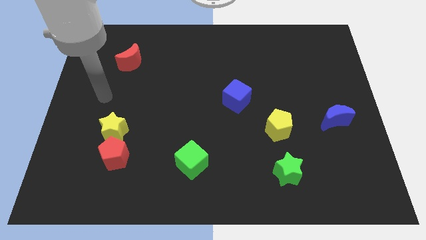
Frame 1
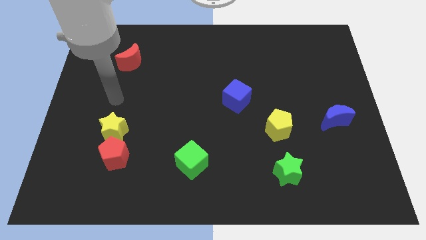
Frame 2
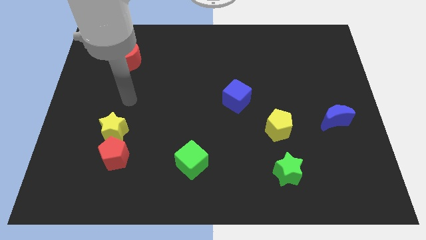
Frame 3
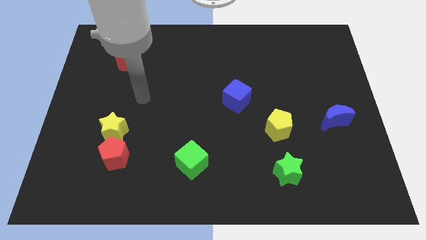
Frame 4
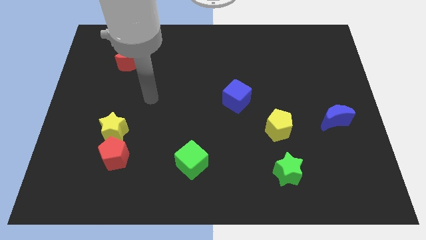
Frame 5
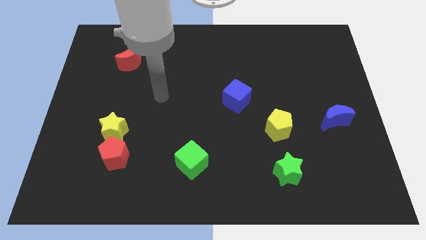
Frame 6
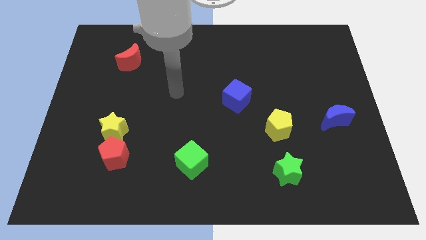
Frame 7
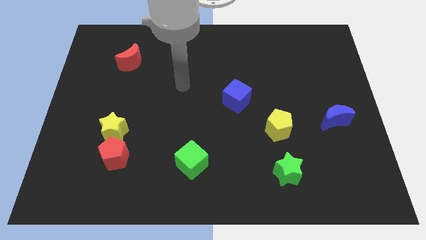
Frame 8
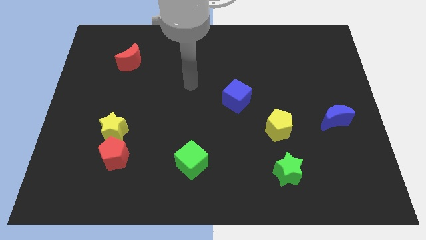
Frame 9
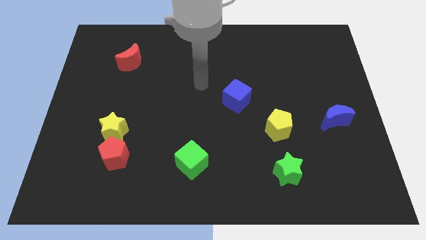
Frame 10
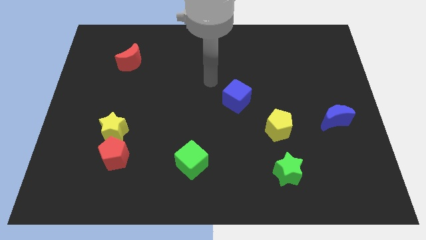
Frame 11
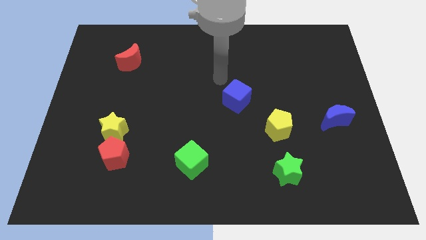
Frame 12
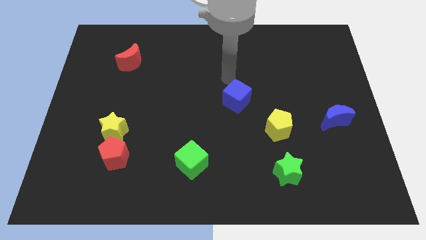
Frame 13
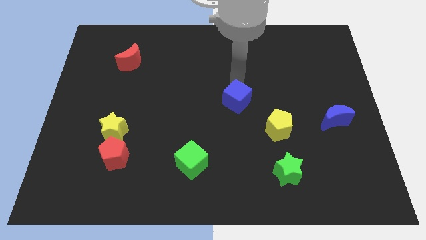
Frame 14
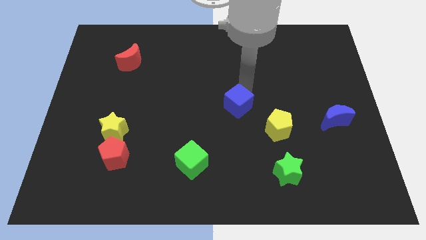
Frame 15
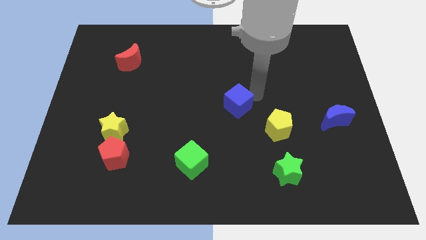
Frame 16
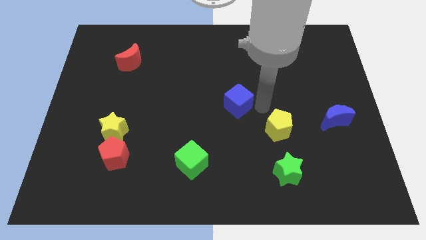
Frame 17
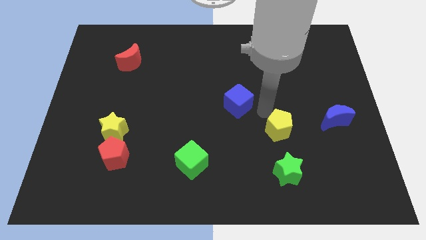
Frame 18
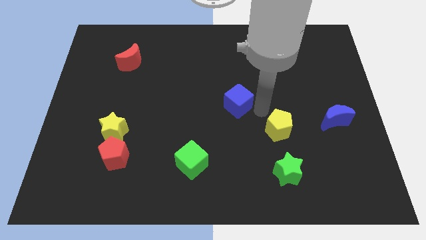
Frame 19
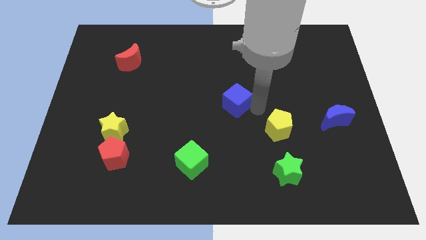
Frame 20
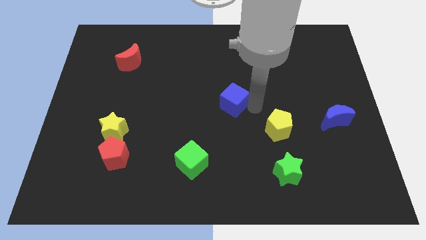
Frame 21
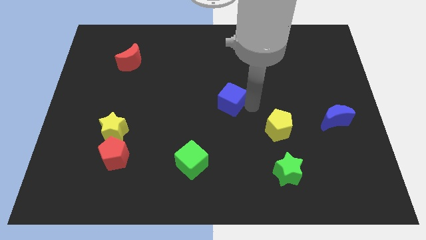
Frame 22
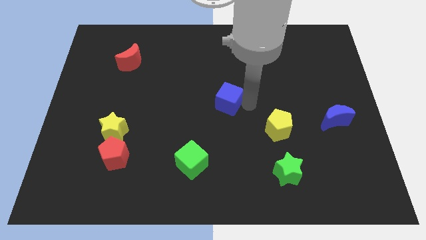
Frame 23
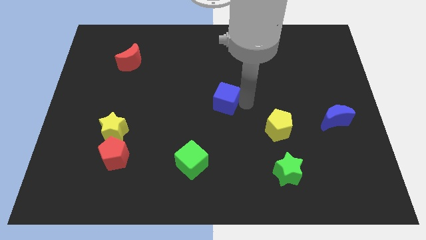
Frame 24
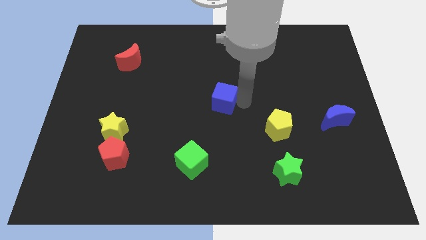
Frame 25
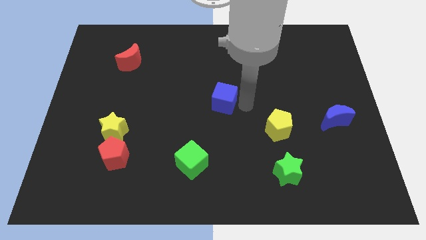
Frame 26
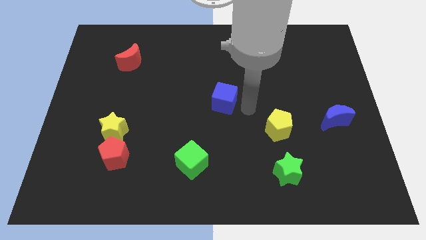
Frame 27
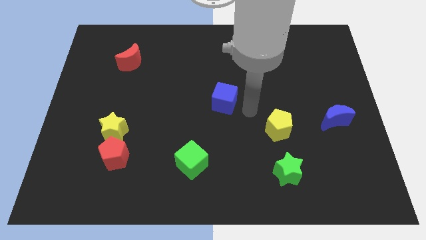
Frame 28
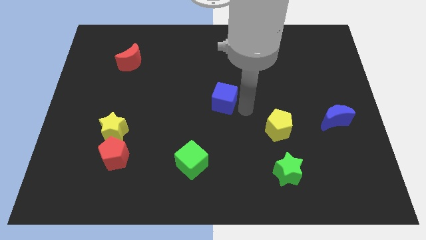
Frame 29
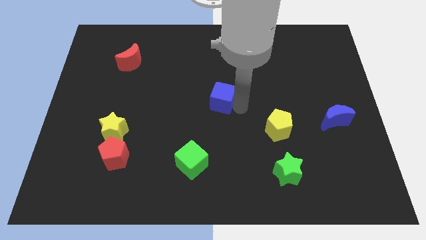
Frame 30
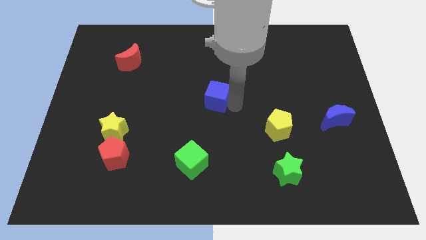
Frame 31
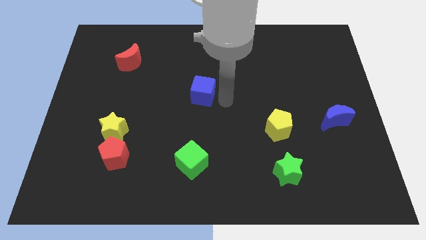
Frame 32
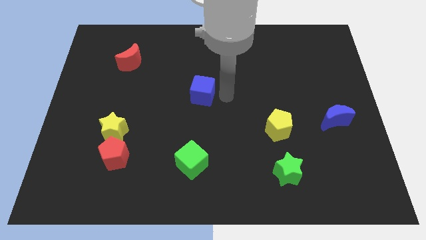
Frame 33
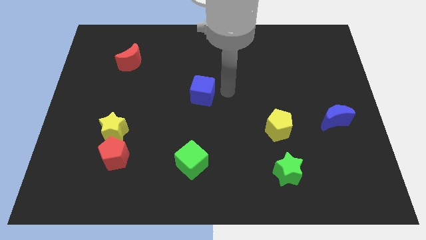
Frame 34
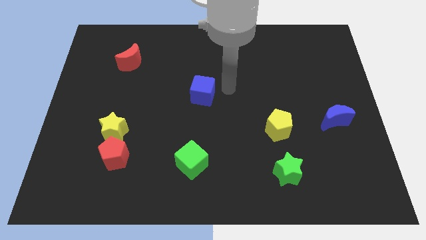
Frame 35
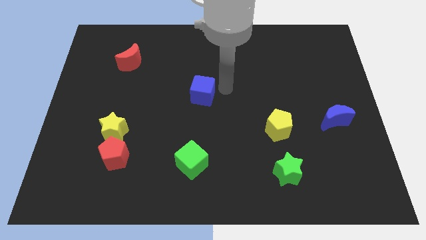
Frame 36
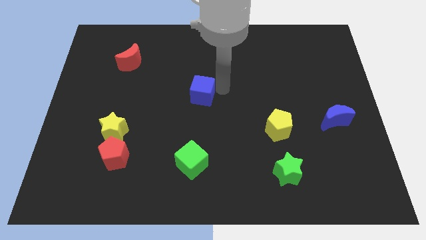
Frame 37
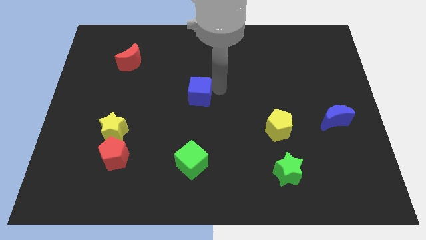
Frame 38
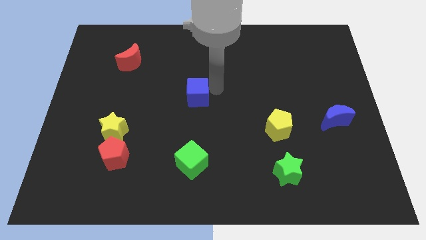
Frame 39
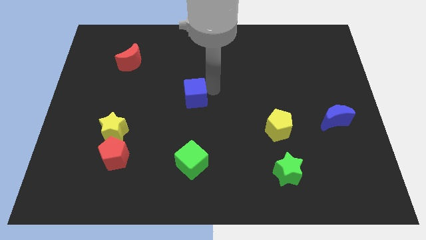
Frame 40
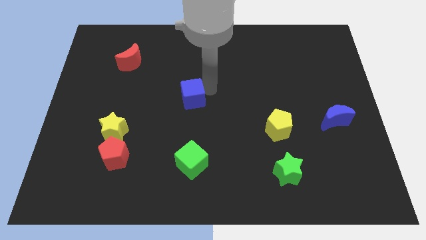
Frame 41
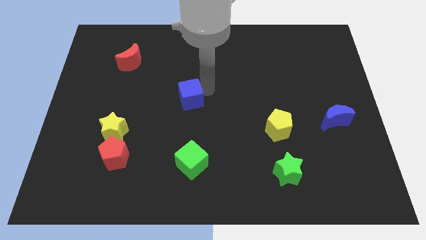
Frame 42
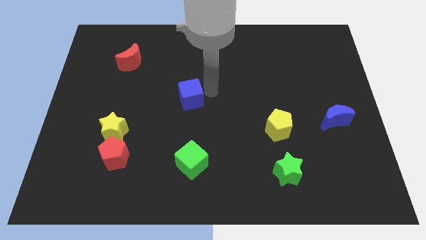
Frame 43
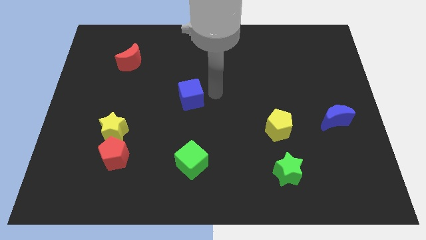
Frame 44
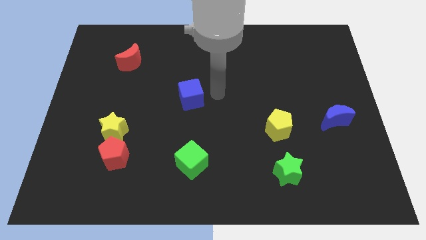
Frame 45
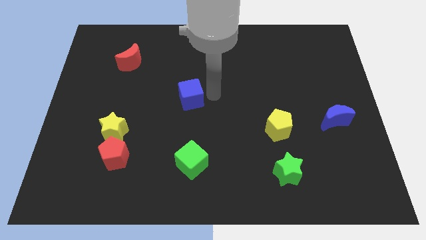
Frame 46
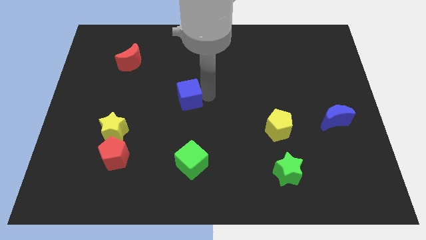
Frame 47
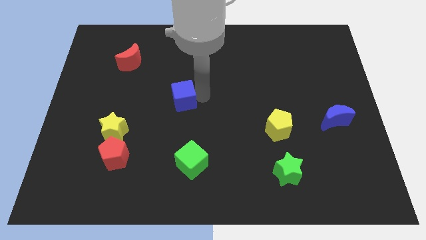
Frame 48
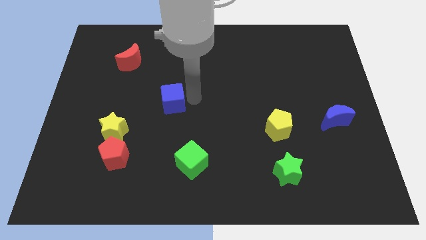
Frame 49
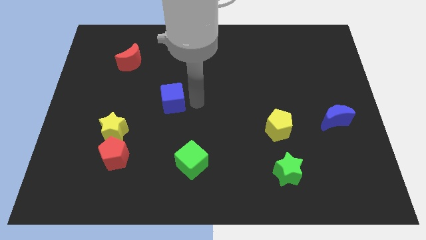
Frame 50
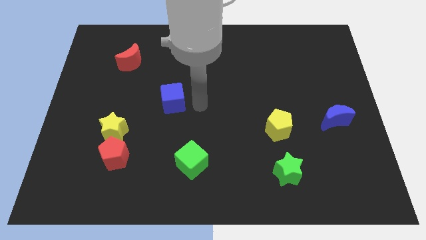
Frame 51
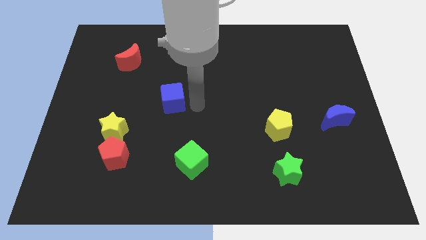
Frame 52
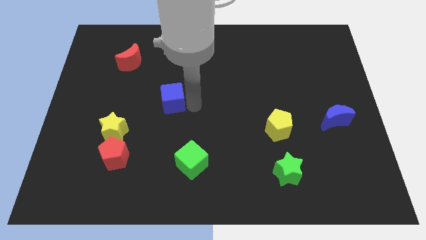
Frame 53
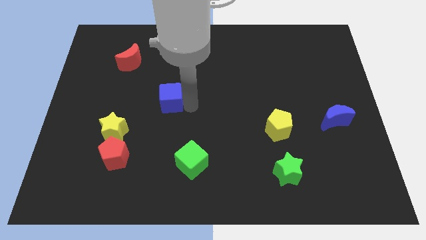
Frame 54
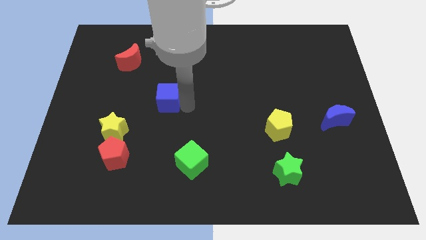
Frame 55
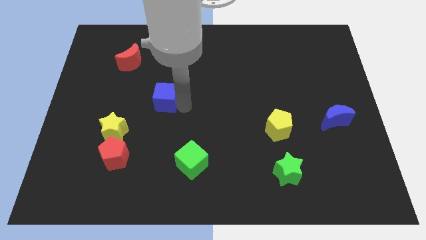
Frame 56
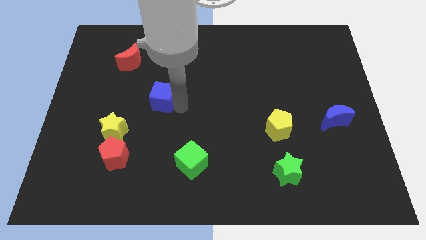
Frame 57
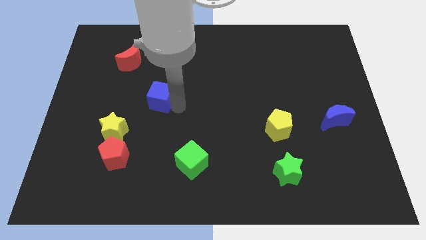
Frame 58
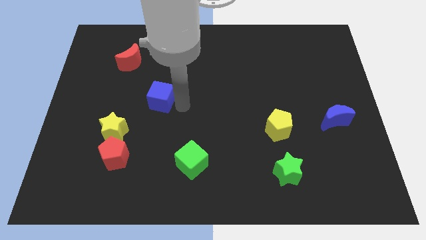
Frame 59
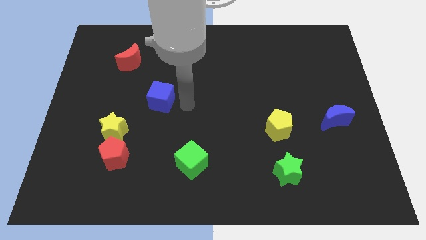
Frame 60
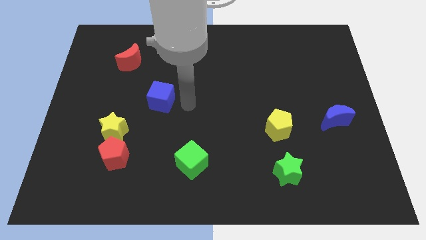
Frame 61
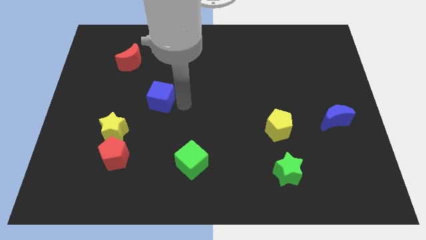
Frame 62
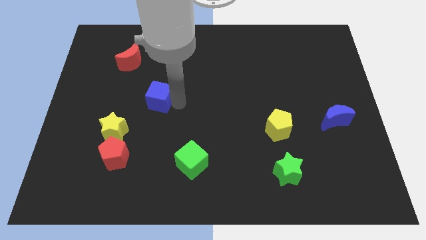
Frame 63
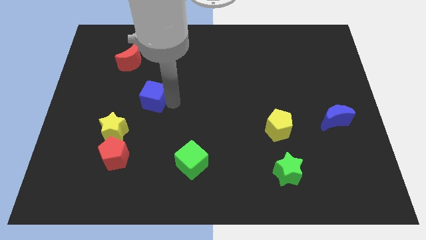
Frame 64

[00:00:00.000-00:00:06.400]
move the blue cube to the left

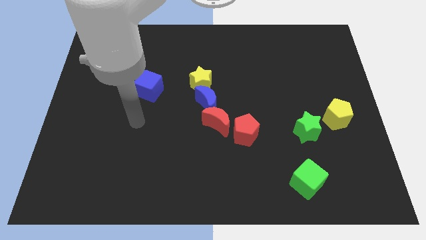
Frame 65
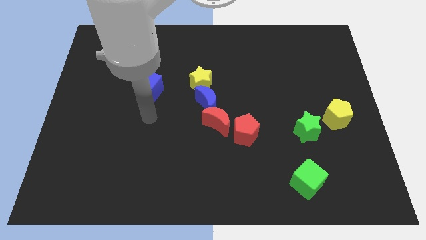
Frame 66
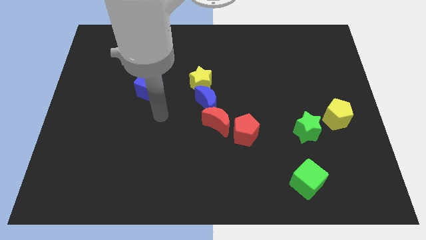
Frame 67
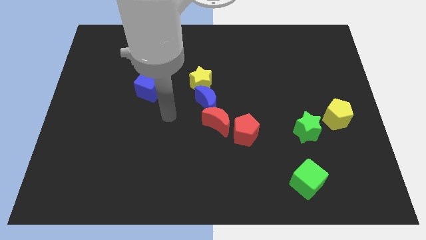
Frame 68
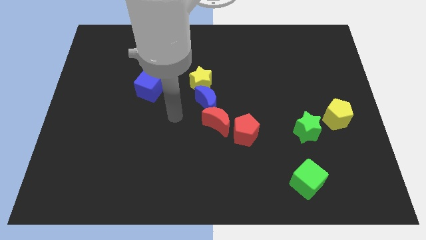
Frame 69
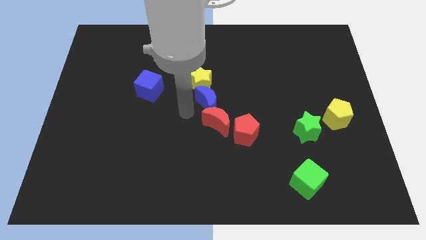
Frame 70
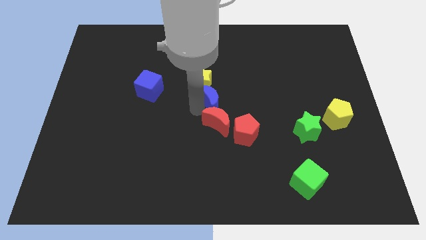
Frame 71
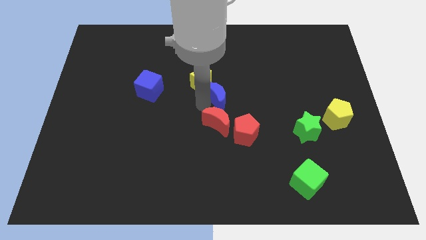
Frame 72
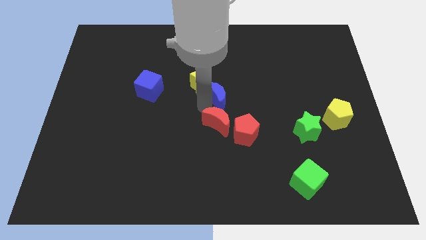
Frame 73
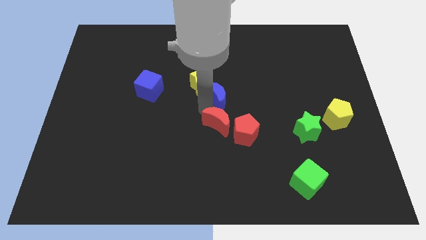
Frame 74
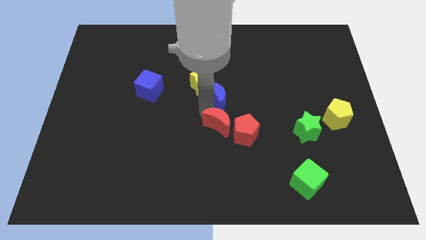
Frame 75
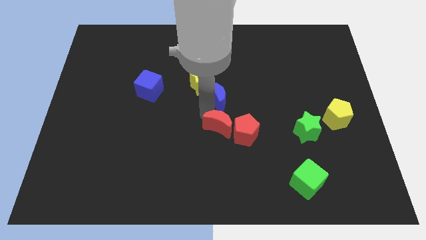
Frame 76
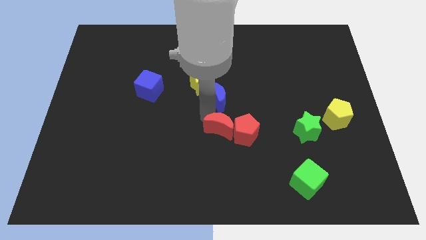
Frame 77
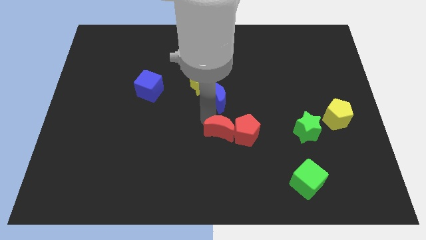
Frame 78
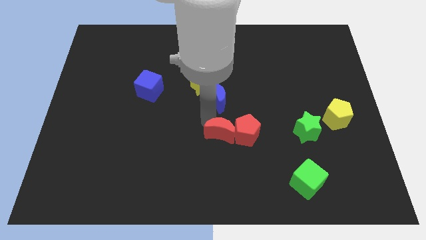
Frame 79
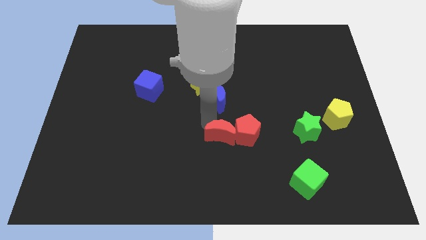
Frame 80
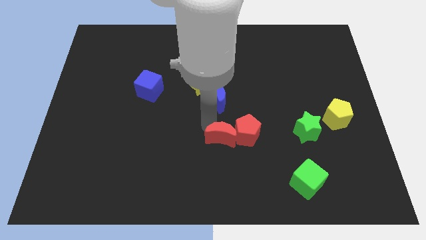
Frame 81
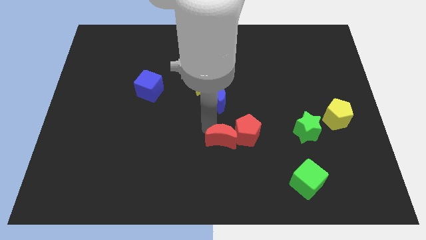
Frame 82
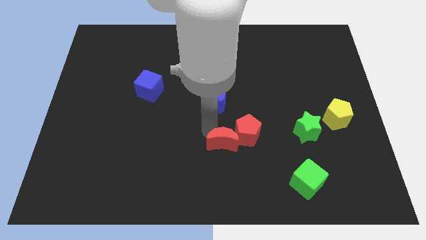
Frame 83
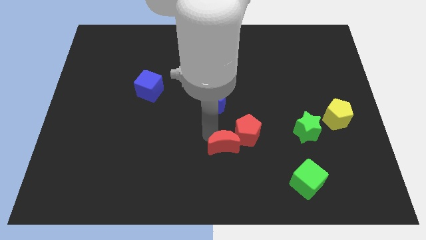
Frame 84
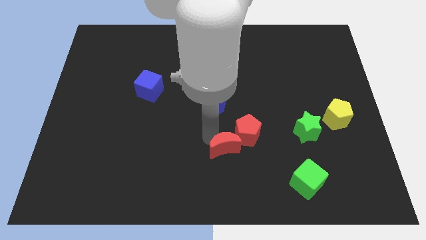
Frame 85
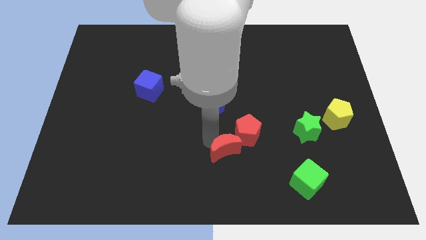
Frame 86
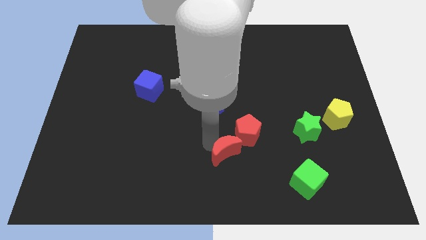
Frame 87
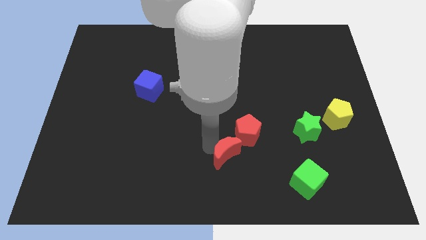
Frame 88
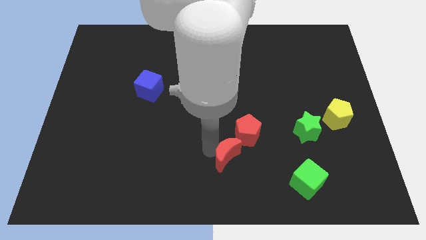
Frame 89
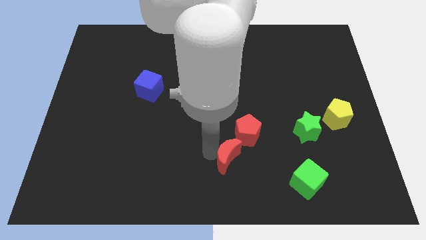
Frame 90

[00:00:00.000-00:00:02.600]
slide the red moon slightly diagonally down and to the right
